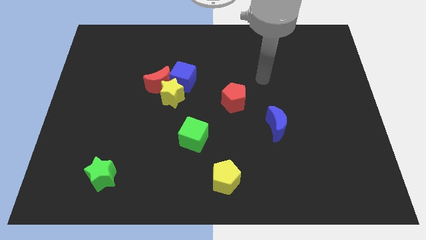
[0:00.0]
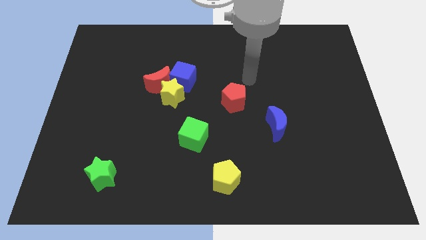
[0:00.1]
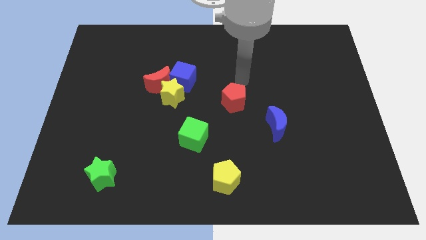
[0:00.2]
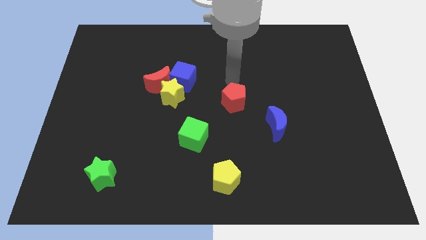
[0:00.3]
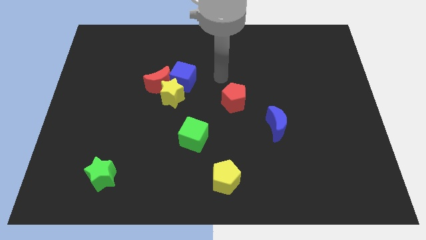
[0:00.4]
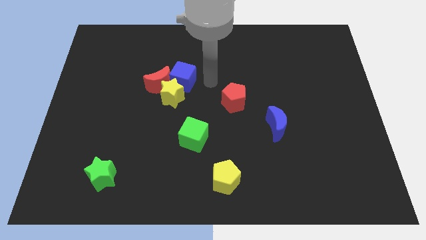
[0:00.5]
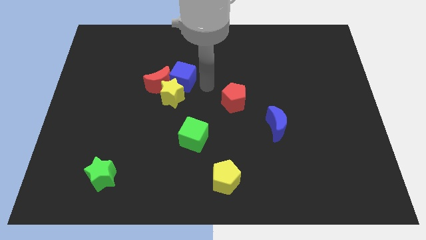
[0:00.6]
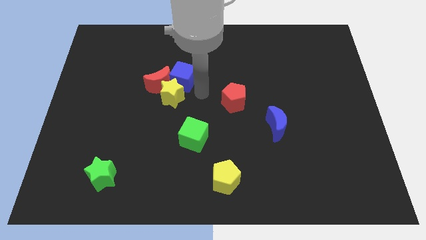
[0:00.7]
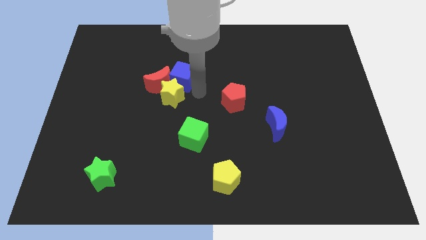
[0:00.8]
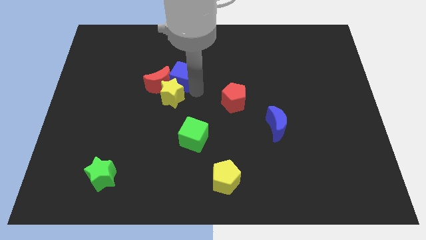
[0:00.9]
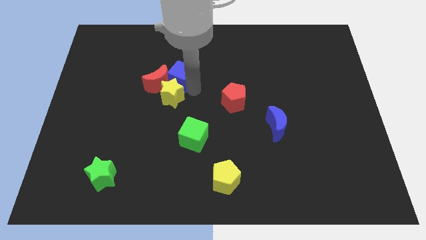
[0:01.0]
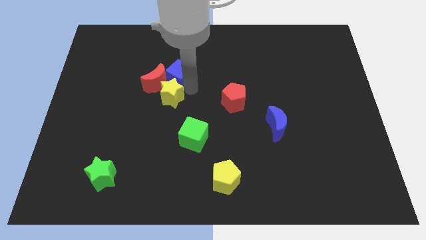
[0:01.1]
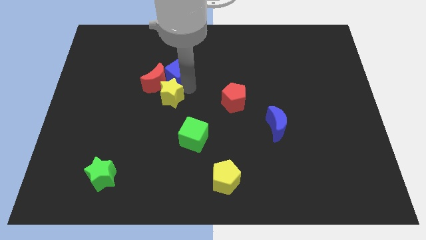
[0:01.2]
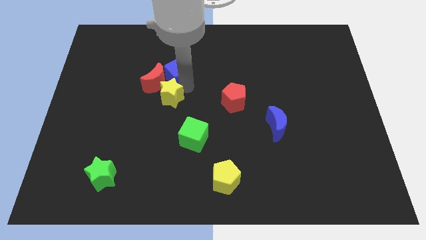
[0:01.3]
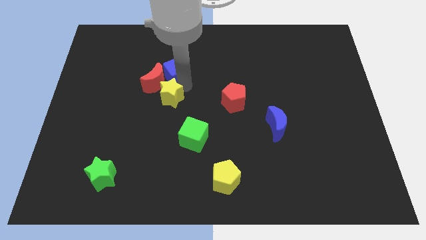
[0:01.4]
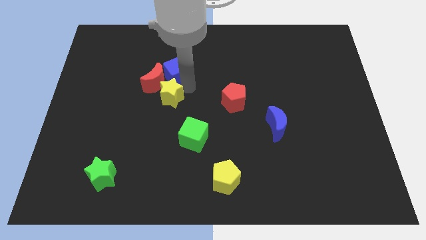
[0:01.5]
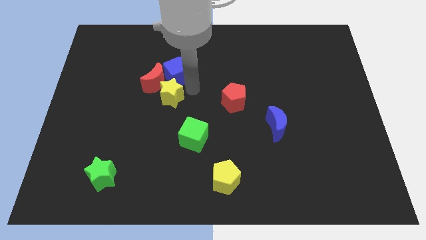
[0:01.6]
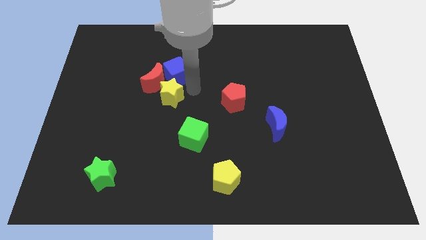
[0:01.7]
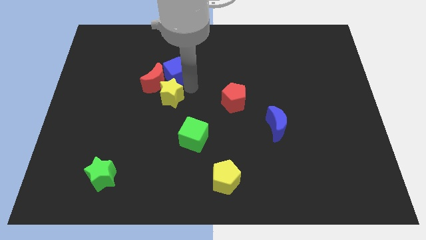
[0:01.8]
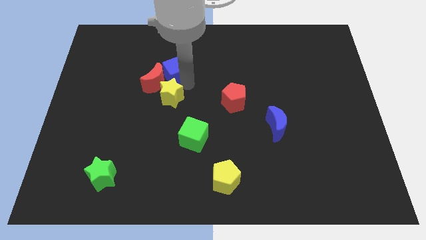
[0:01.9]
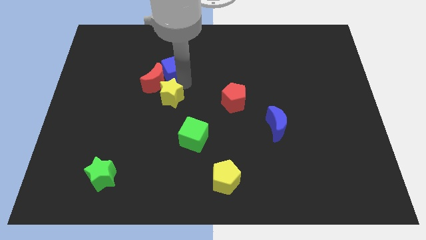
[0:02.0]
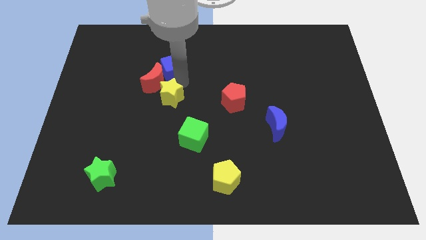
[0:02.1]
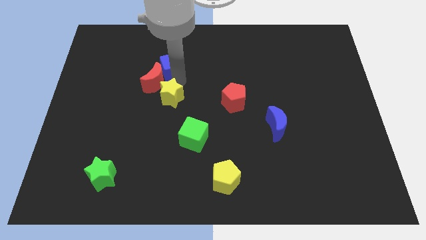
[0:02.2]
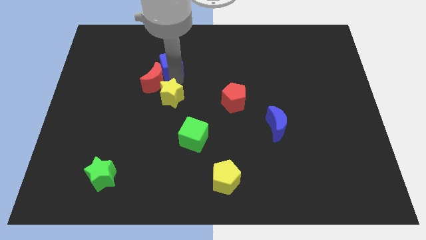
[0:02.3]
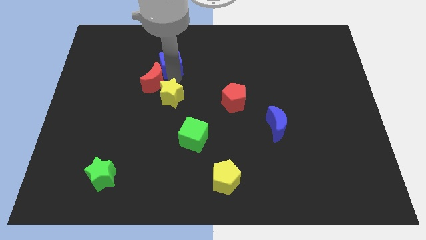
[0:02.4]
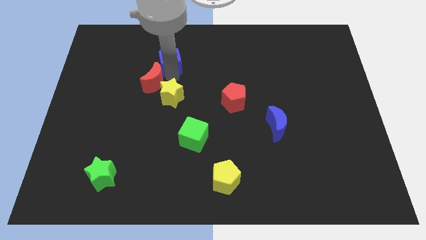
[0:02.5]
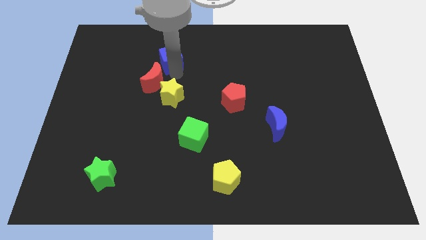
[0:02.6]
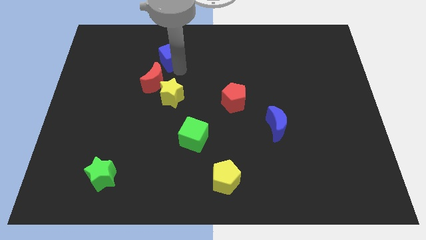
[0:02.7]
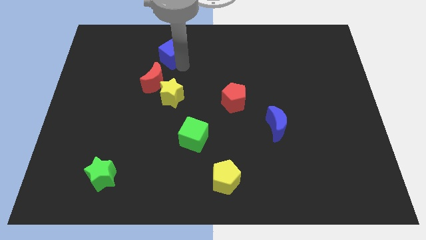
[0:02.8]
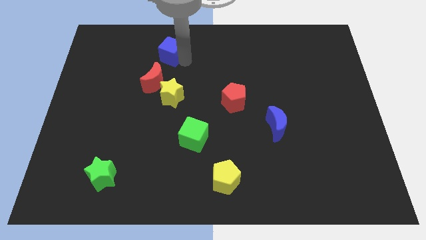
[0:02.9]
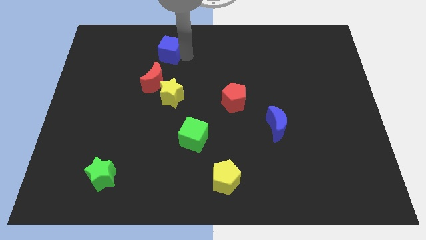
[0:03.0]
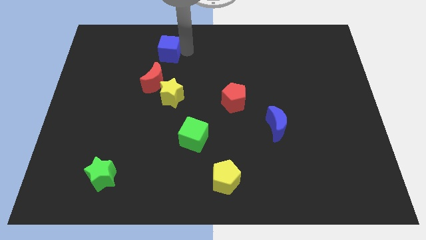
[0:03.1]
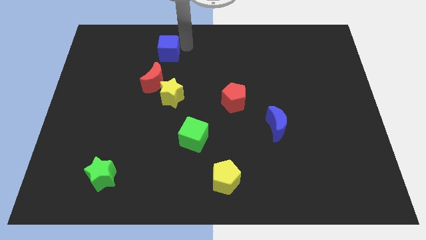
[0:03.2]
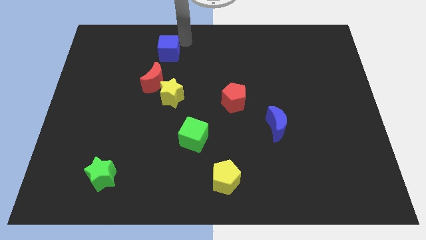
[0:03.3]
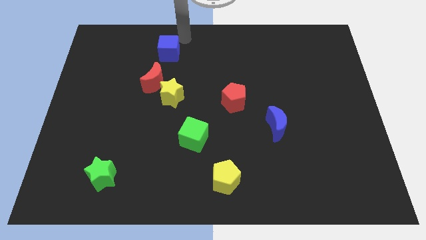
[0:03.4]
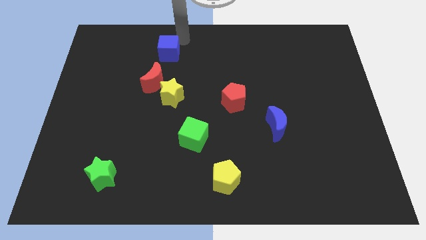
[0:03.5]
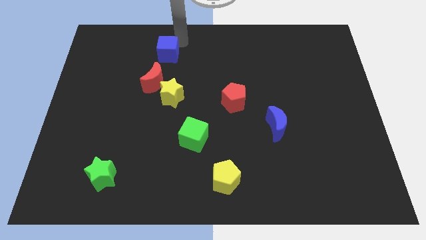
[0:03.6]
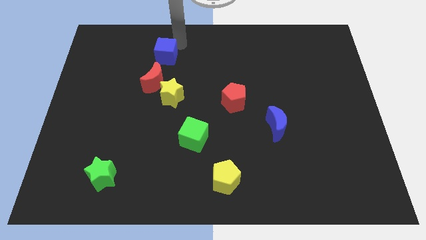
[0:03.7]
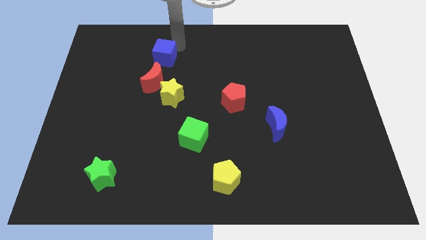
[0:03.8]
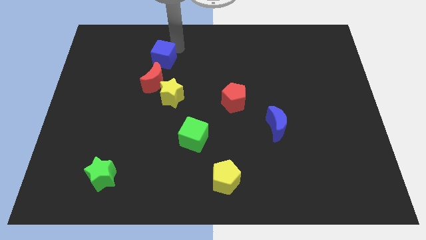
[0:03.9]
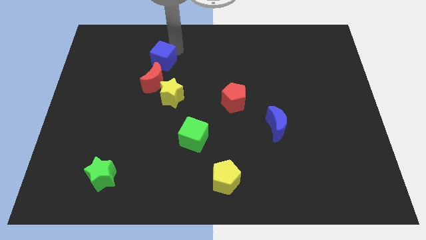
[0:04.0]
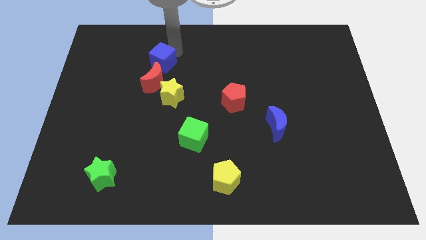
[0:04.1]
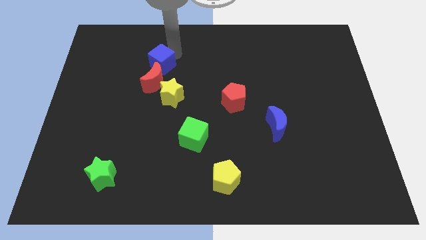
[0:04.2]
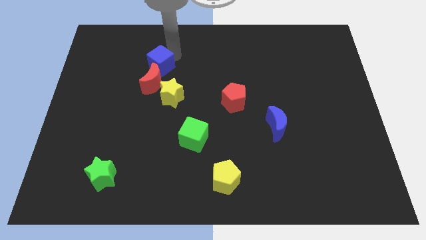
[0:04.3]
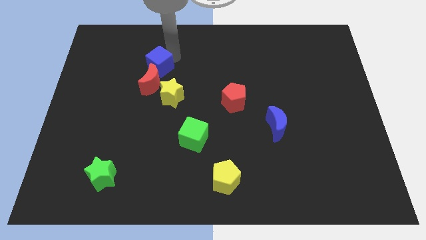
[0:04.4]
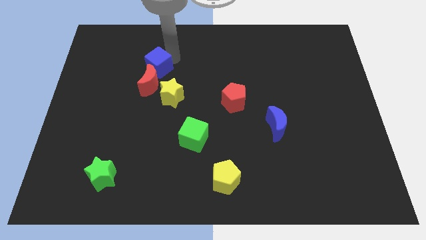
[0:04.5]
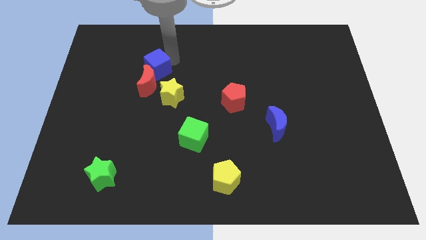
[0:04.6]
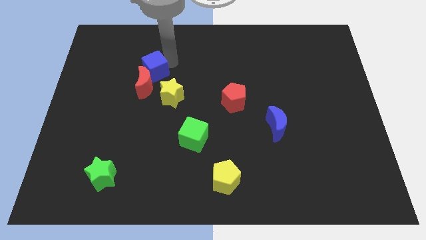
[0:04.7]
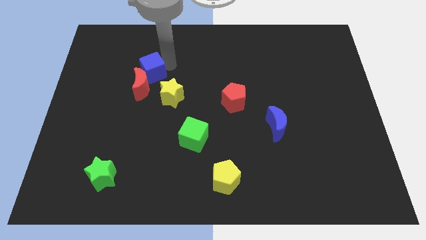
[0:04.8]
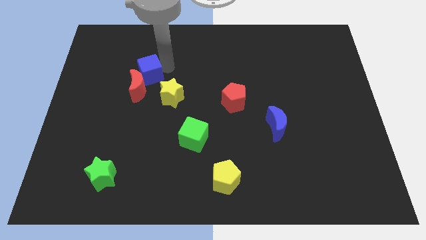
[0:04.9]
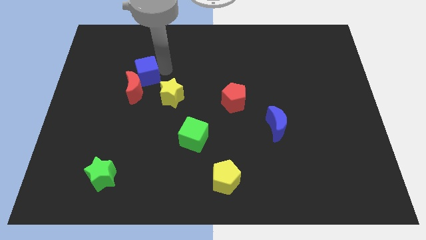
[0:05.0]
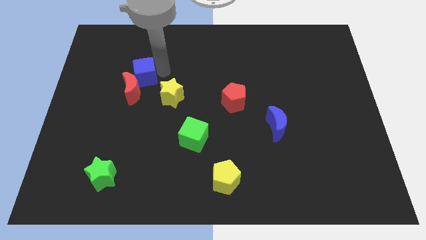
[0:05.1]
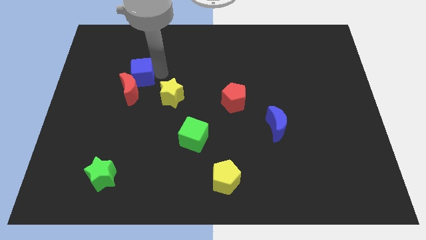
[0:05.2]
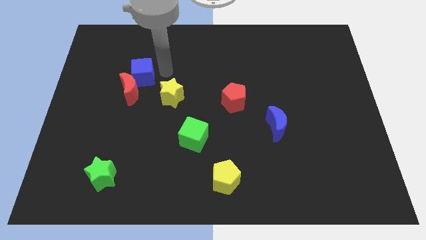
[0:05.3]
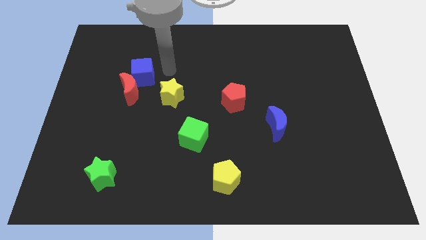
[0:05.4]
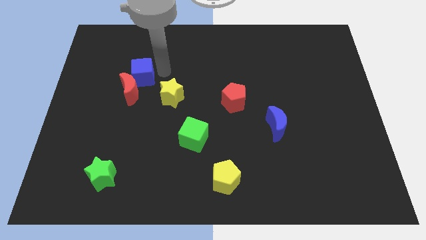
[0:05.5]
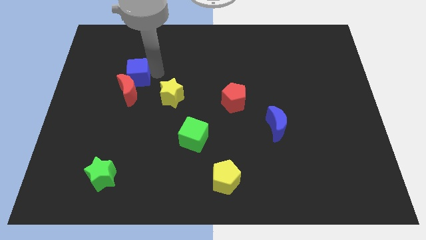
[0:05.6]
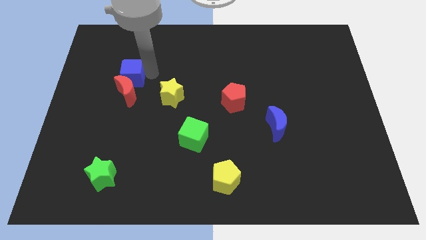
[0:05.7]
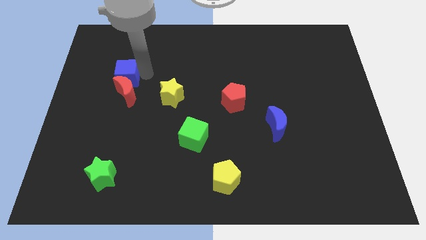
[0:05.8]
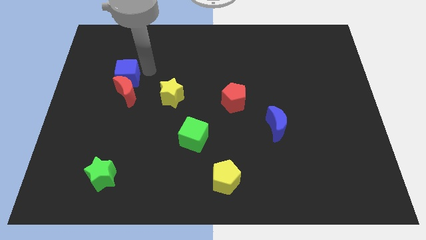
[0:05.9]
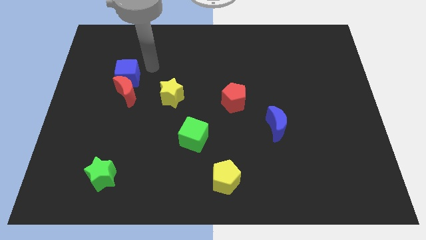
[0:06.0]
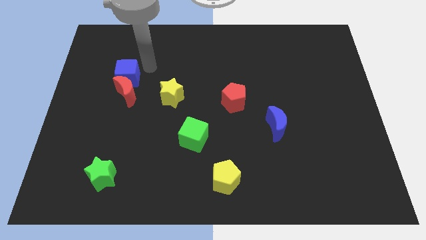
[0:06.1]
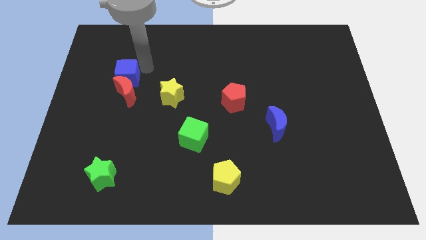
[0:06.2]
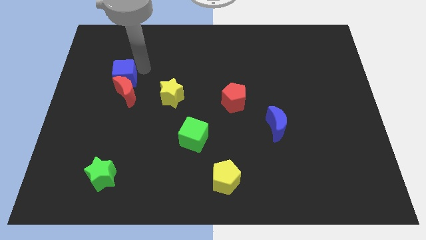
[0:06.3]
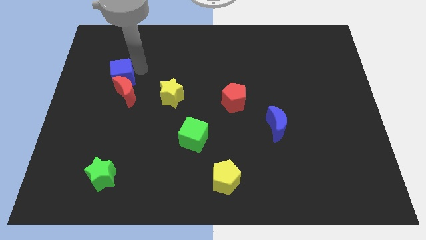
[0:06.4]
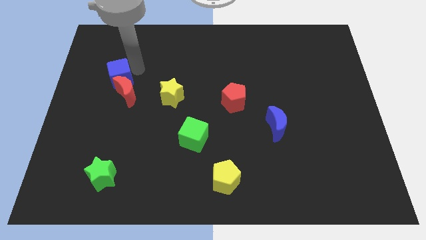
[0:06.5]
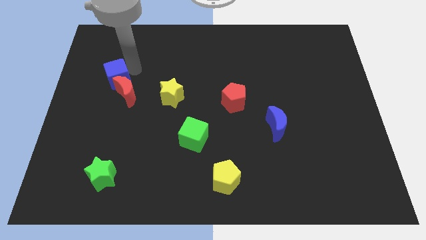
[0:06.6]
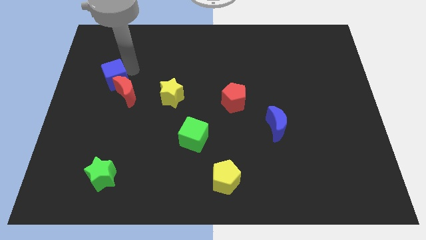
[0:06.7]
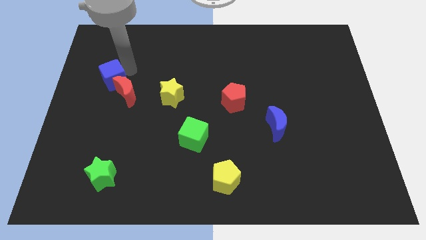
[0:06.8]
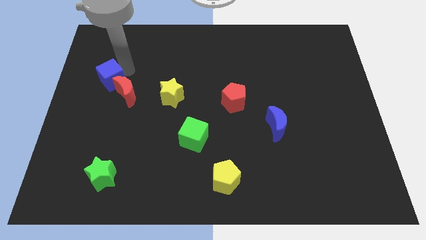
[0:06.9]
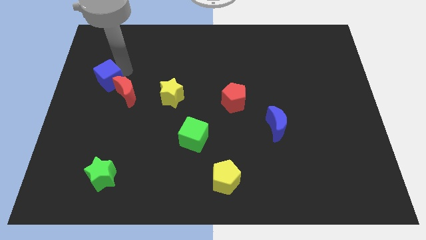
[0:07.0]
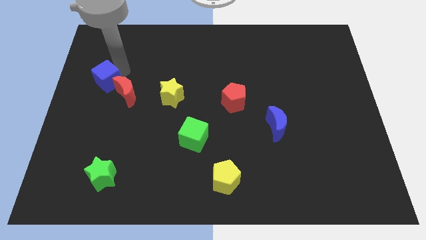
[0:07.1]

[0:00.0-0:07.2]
push the blue cube to the left side of the board

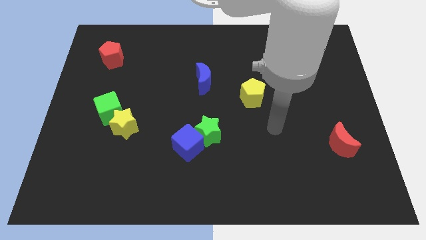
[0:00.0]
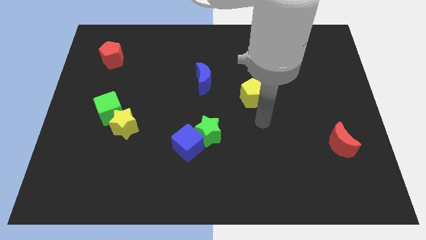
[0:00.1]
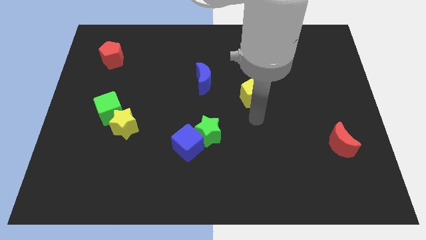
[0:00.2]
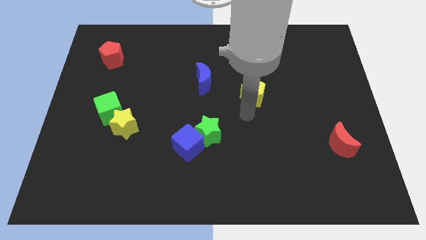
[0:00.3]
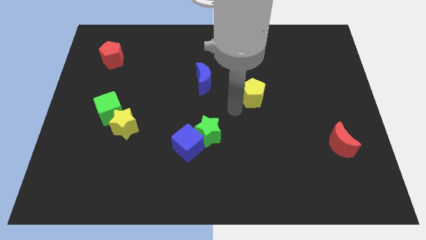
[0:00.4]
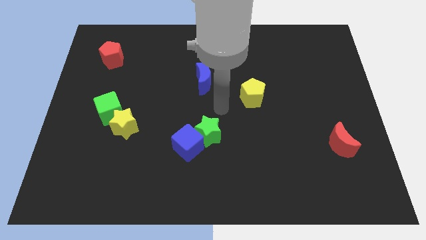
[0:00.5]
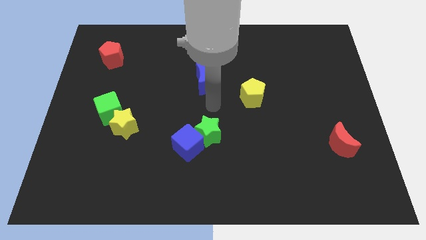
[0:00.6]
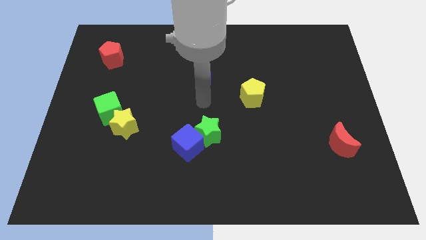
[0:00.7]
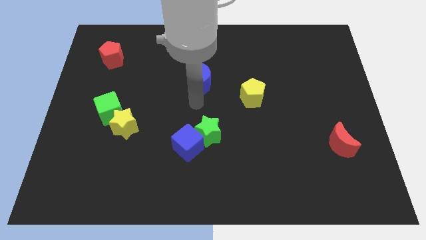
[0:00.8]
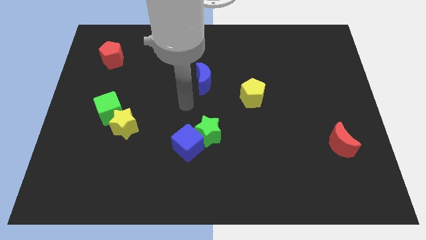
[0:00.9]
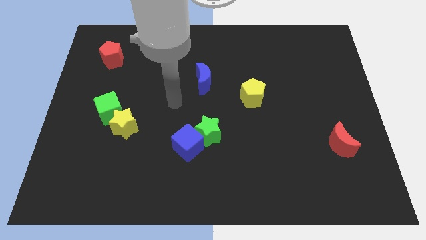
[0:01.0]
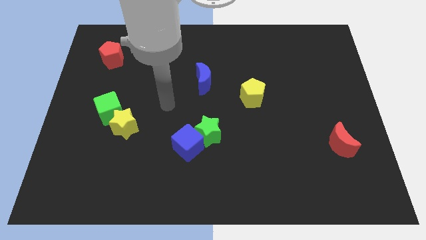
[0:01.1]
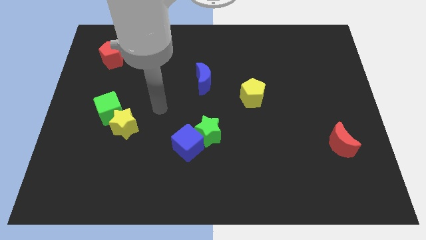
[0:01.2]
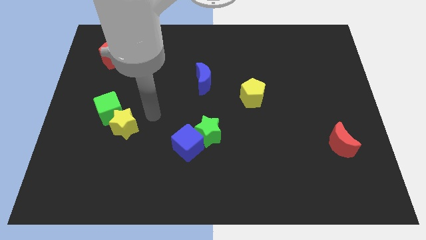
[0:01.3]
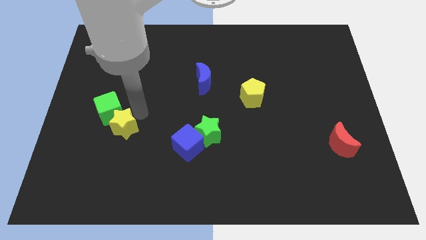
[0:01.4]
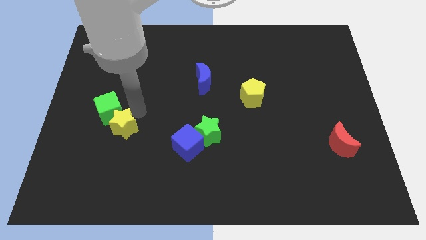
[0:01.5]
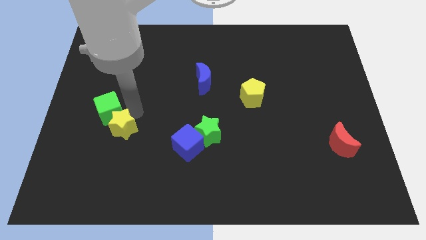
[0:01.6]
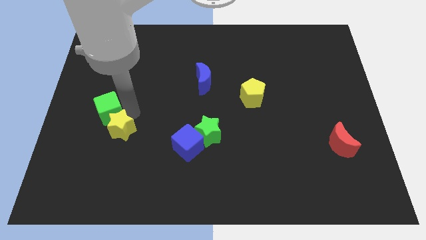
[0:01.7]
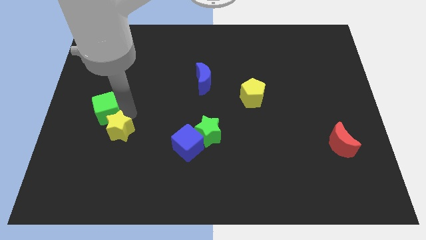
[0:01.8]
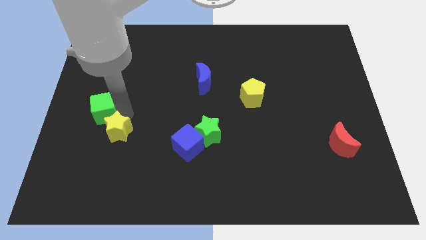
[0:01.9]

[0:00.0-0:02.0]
push the green cube to the left side of the board
